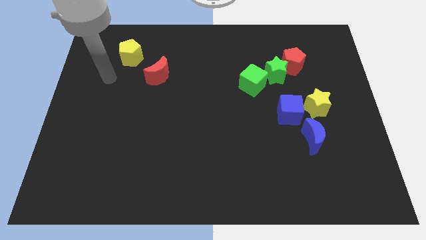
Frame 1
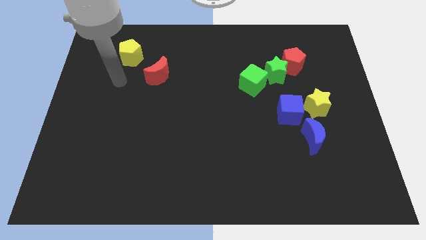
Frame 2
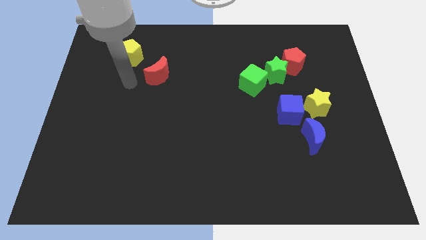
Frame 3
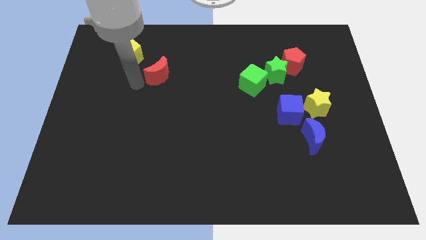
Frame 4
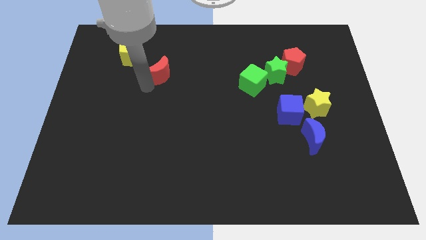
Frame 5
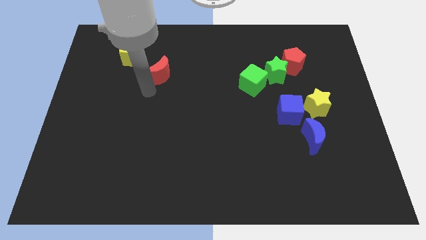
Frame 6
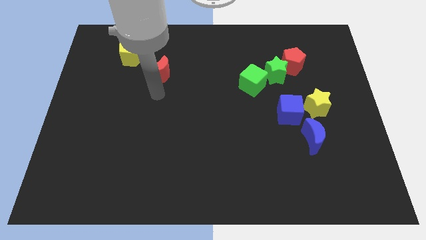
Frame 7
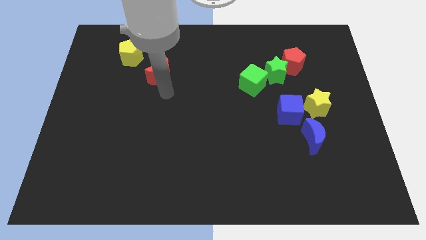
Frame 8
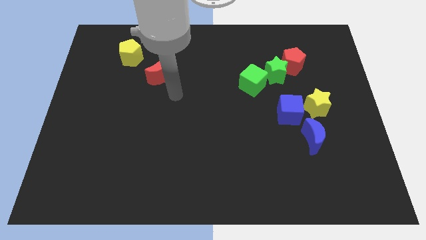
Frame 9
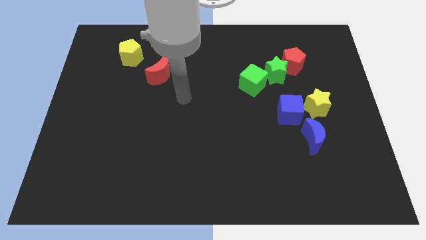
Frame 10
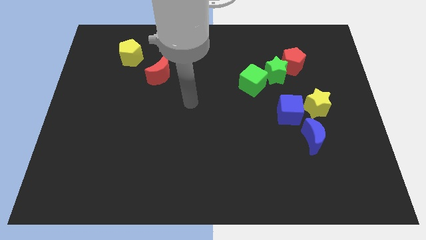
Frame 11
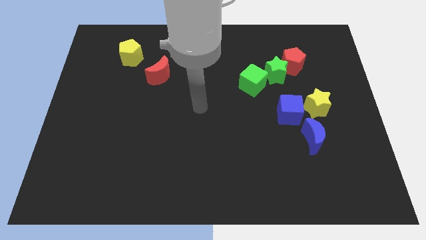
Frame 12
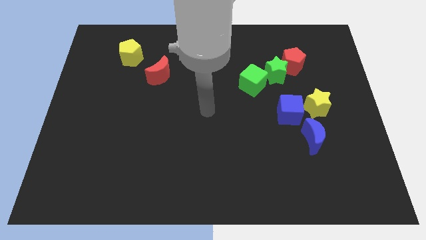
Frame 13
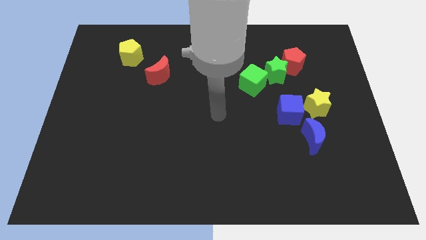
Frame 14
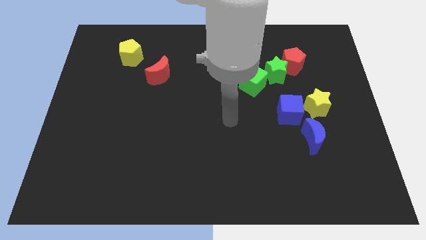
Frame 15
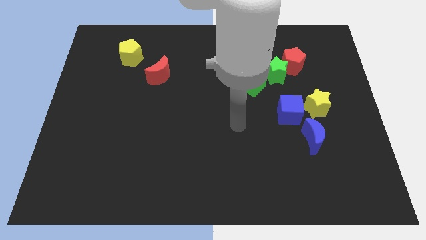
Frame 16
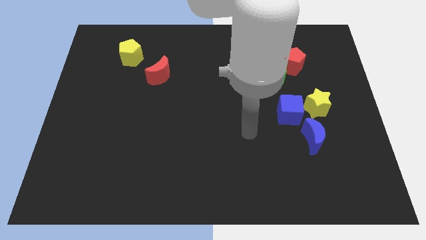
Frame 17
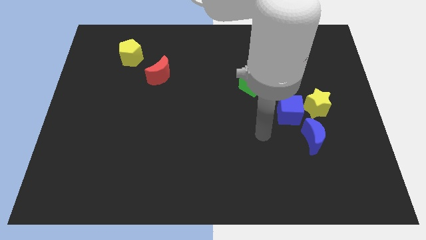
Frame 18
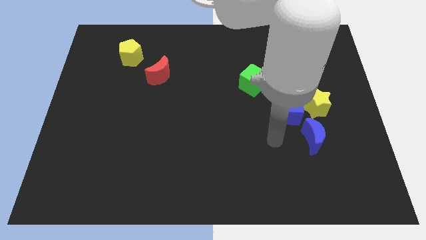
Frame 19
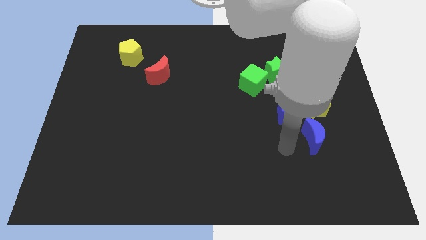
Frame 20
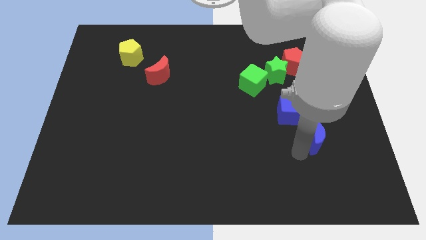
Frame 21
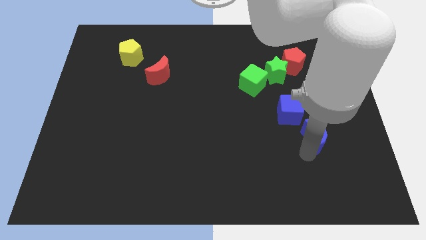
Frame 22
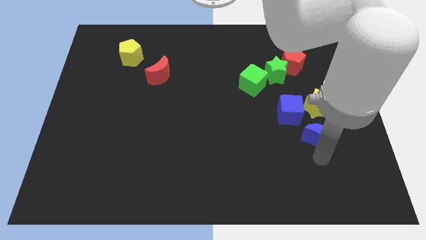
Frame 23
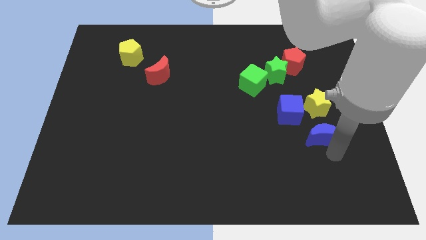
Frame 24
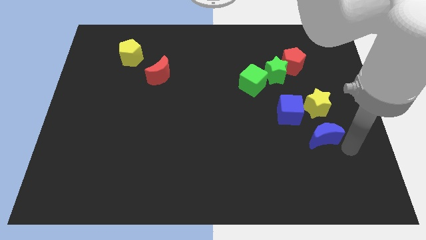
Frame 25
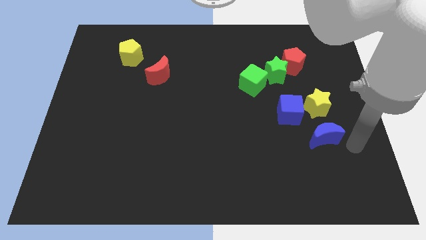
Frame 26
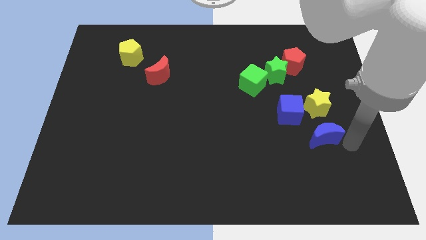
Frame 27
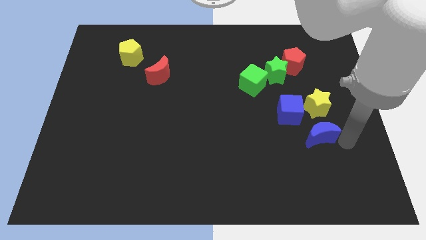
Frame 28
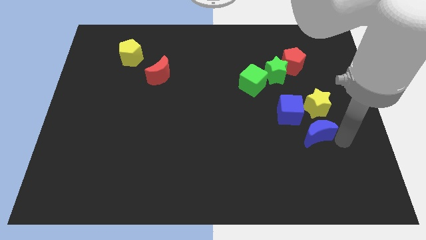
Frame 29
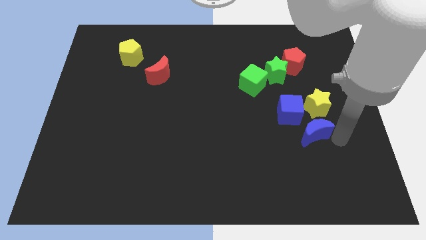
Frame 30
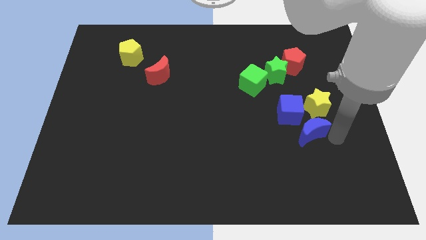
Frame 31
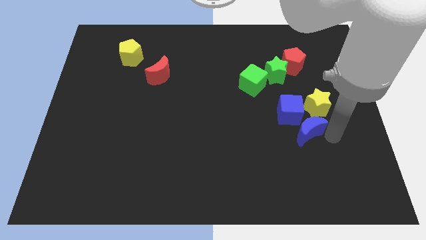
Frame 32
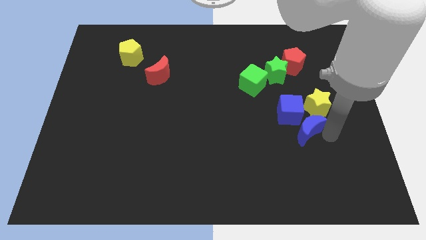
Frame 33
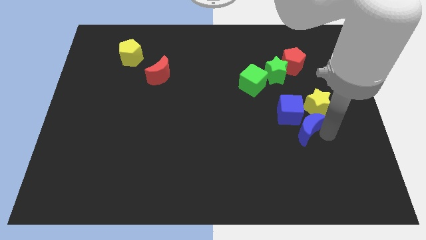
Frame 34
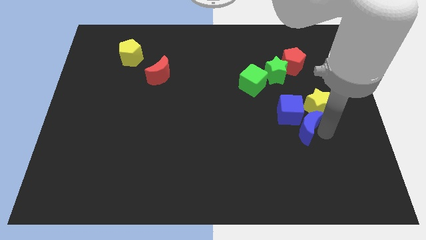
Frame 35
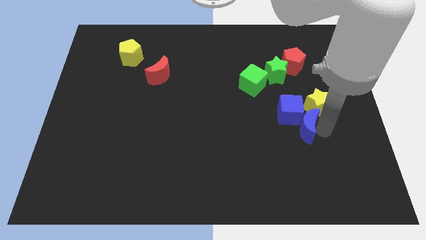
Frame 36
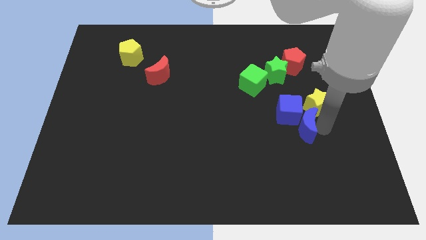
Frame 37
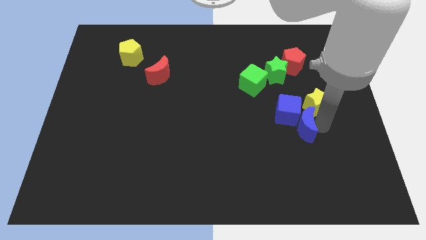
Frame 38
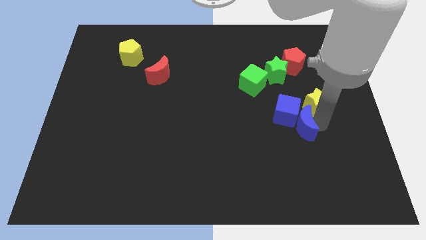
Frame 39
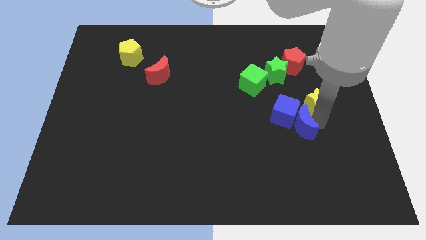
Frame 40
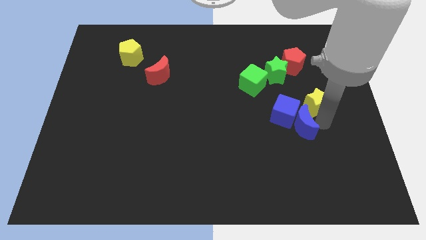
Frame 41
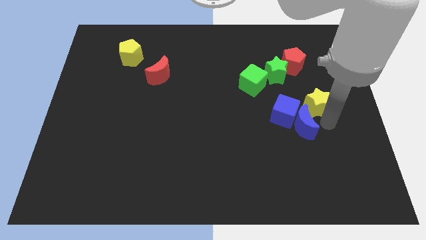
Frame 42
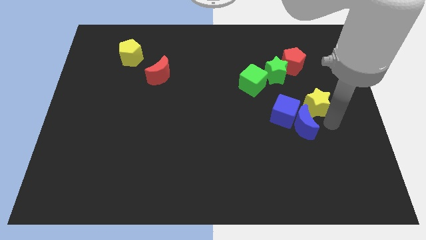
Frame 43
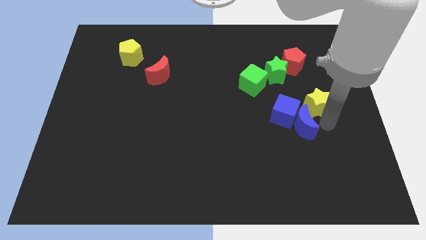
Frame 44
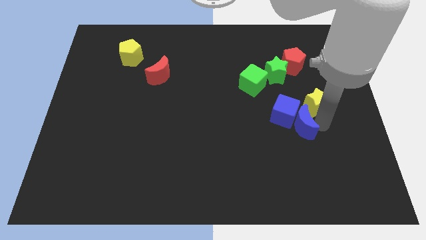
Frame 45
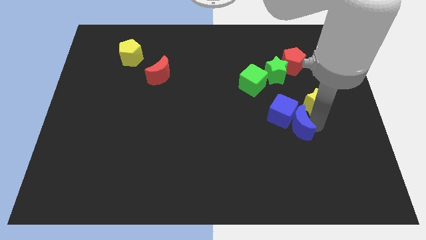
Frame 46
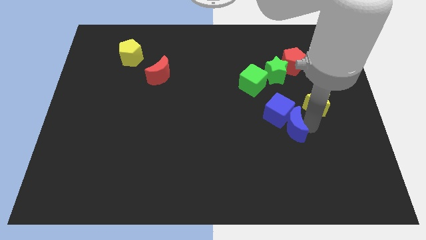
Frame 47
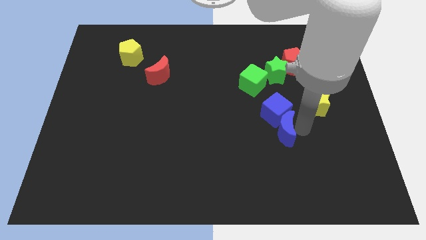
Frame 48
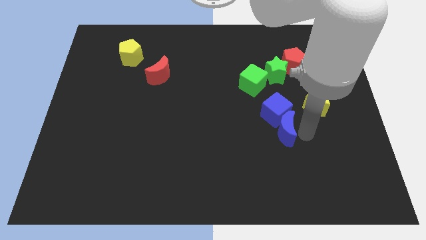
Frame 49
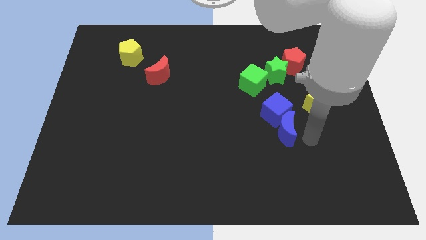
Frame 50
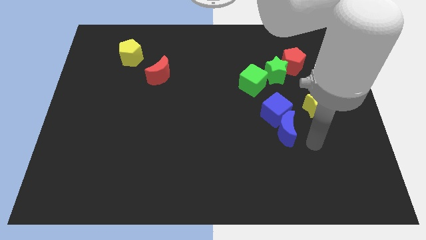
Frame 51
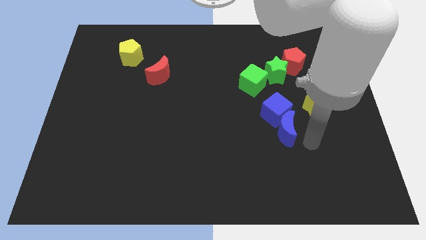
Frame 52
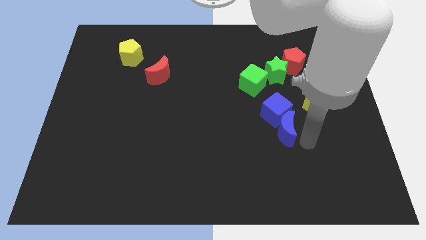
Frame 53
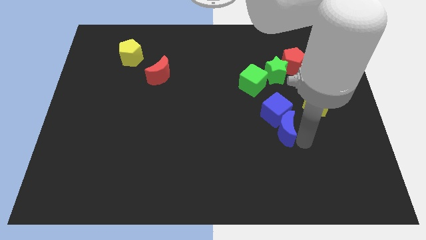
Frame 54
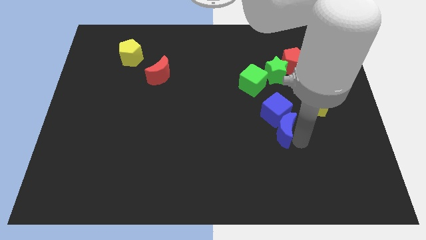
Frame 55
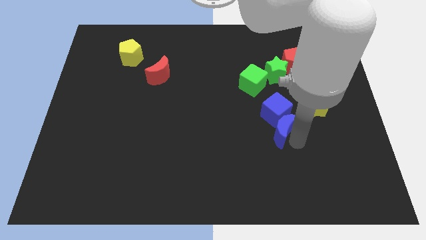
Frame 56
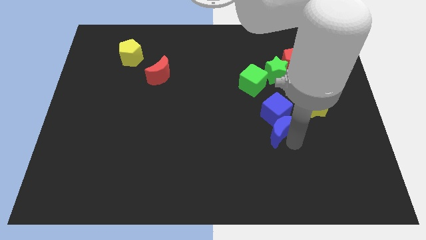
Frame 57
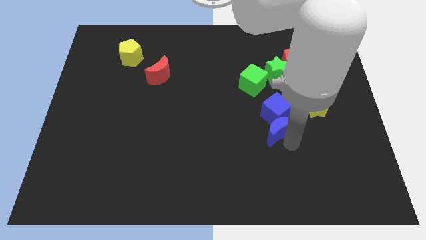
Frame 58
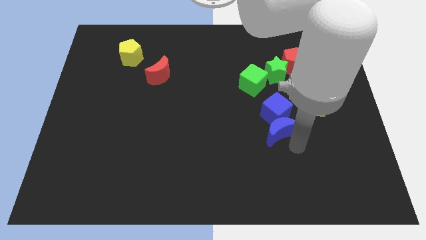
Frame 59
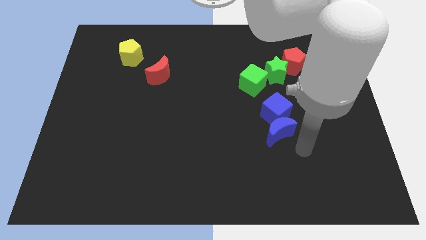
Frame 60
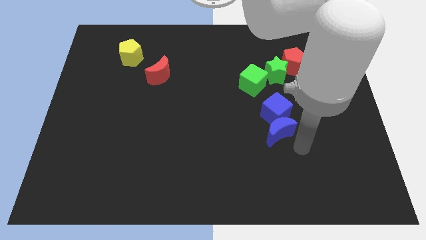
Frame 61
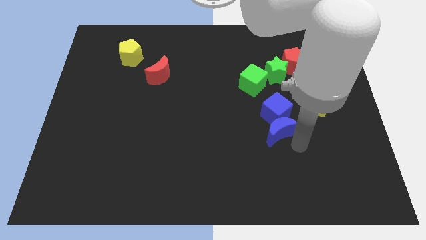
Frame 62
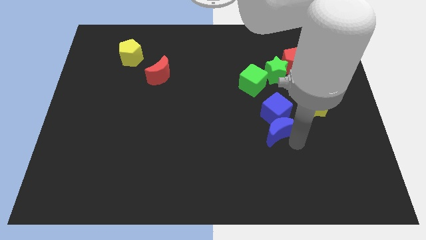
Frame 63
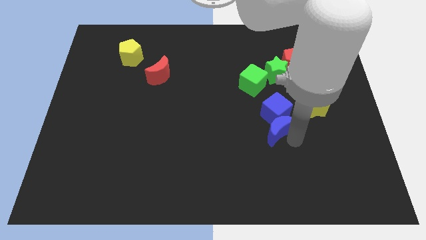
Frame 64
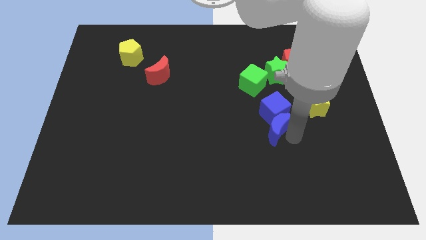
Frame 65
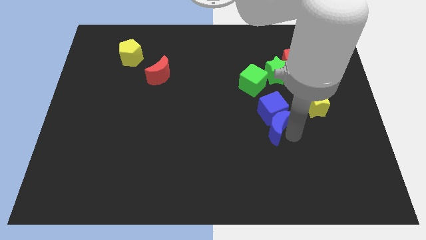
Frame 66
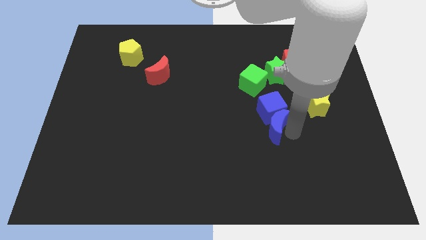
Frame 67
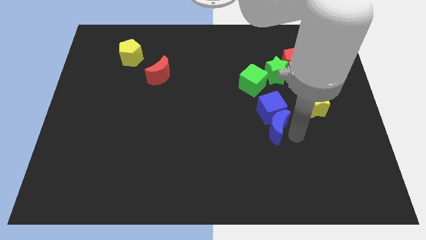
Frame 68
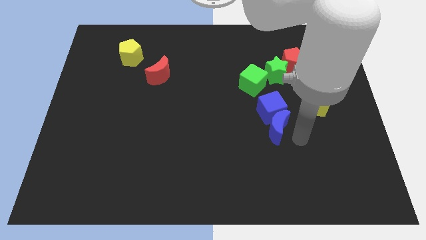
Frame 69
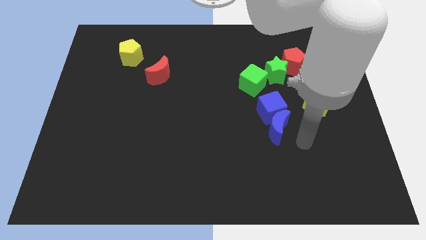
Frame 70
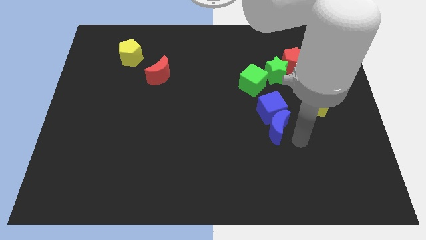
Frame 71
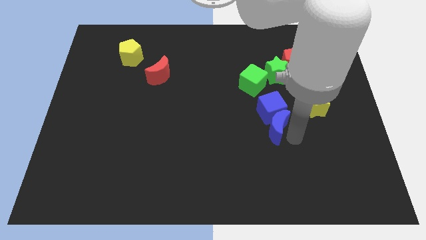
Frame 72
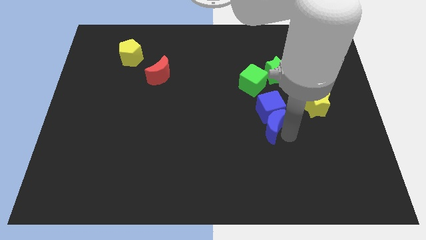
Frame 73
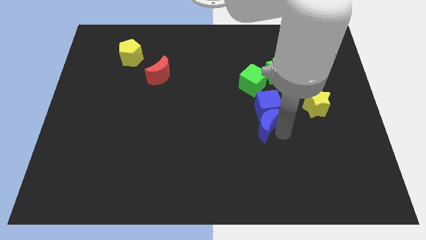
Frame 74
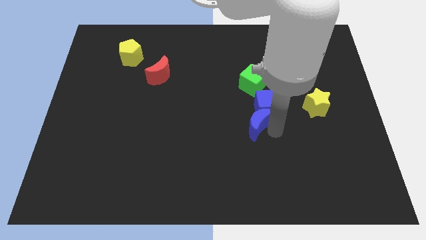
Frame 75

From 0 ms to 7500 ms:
slide the blue moon to the center

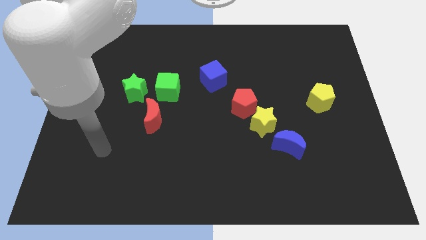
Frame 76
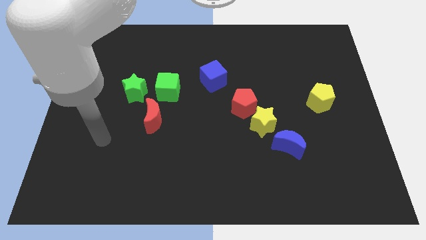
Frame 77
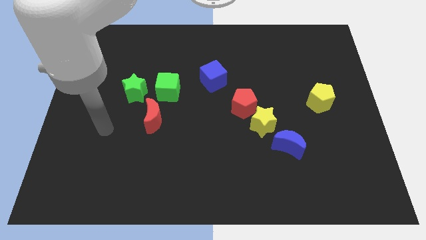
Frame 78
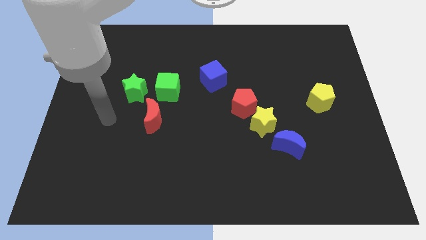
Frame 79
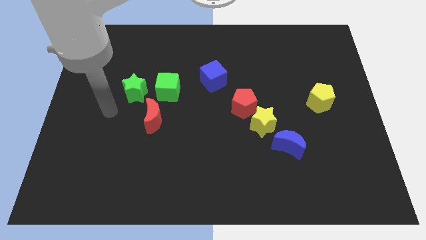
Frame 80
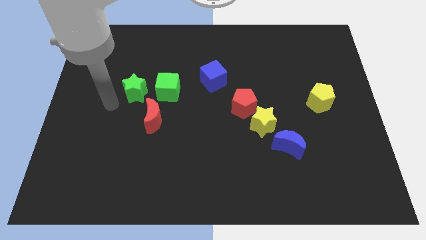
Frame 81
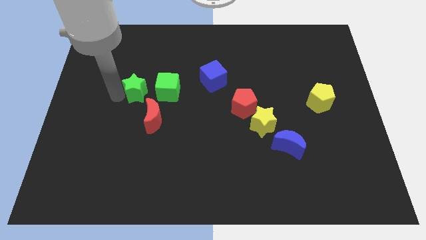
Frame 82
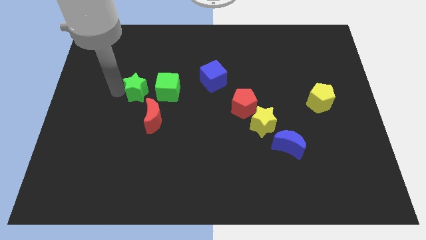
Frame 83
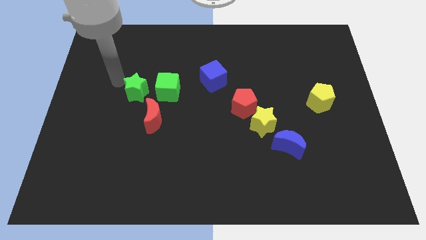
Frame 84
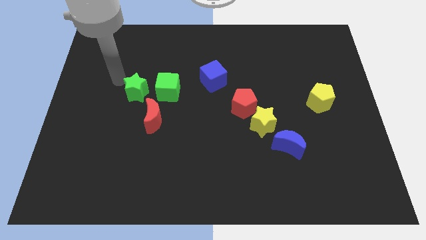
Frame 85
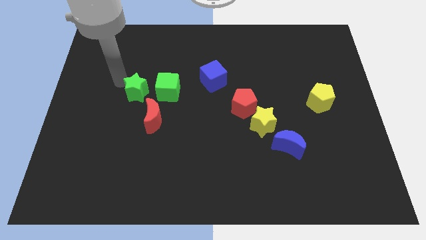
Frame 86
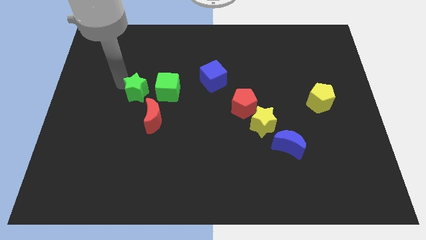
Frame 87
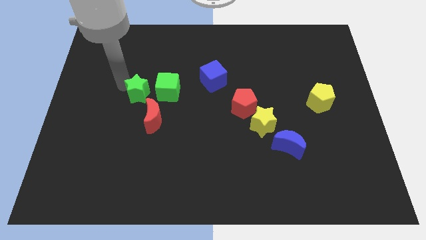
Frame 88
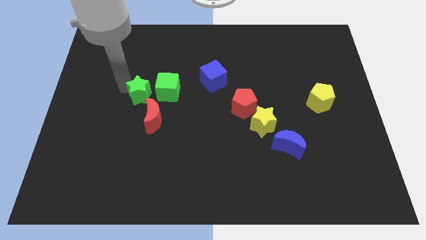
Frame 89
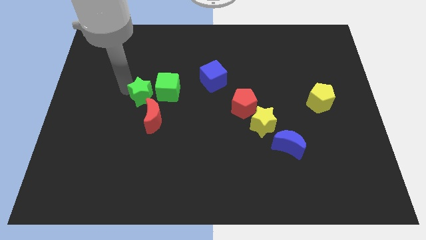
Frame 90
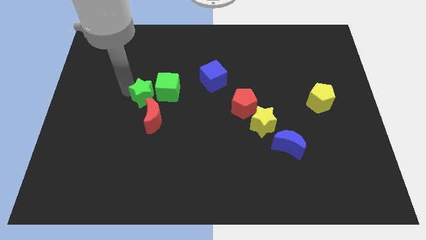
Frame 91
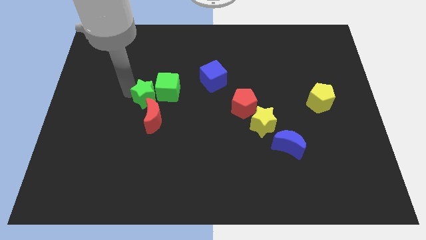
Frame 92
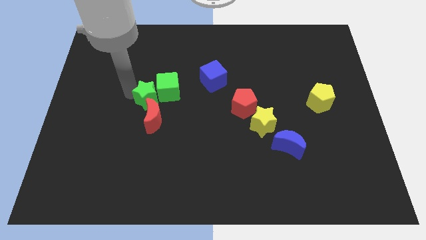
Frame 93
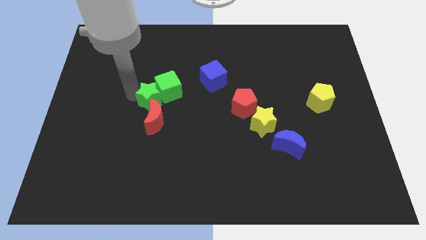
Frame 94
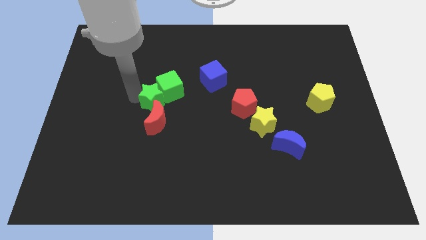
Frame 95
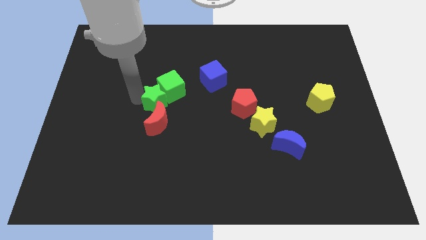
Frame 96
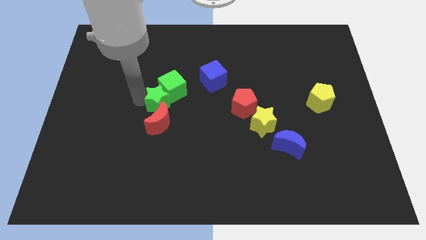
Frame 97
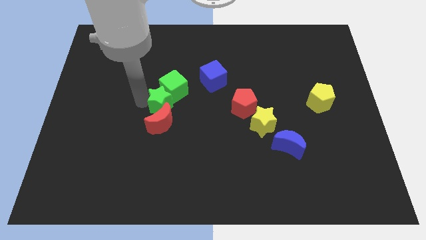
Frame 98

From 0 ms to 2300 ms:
slide the green star to the center of the board
